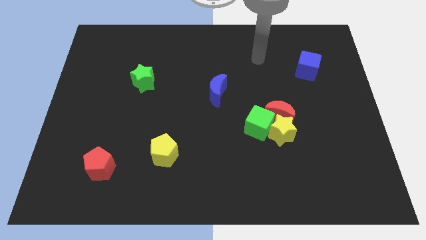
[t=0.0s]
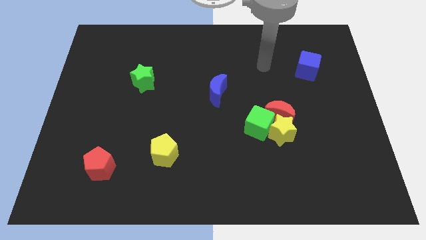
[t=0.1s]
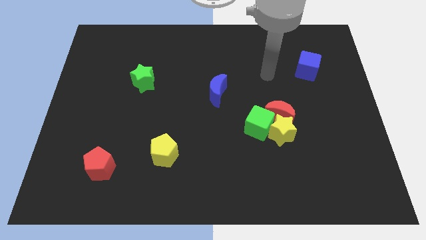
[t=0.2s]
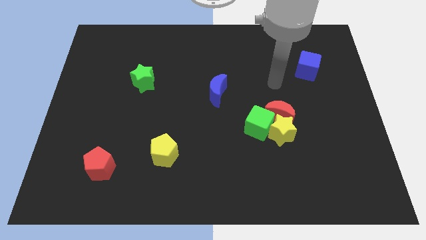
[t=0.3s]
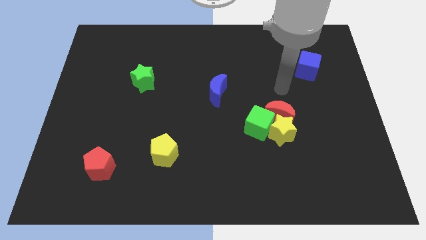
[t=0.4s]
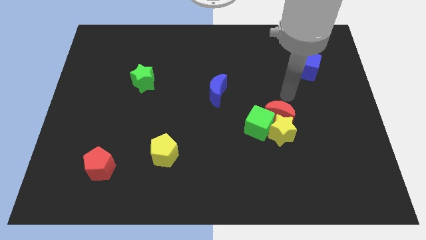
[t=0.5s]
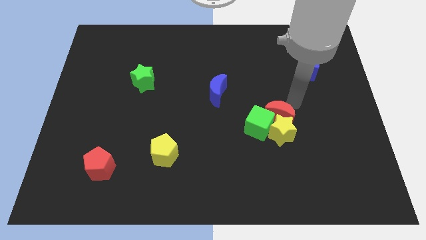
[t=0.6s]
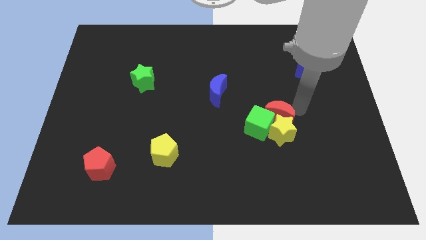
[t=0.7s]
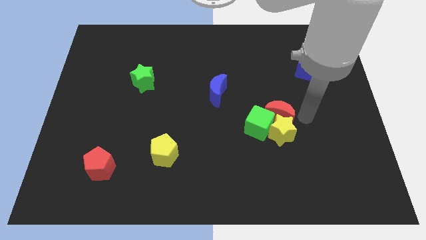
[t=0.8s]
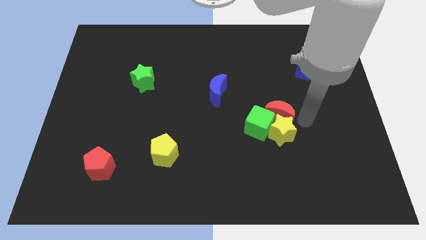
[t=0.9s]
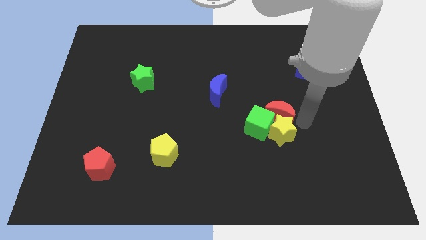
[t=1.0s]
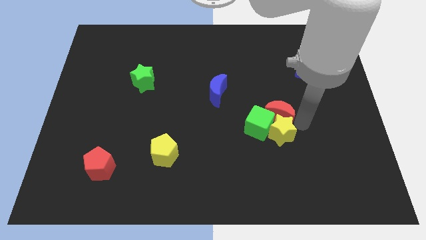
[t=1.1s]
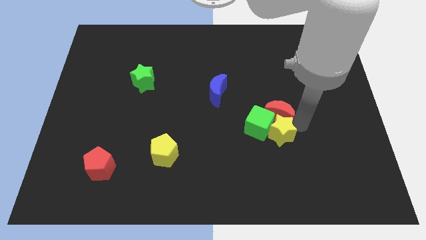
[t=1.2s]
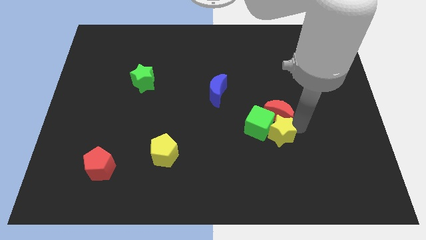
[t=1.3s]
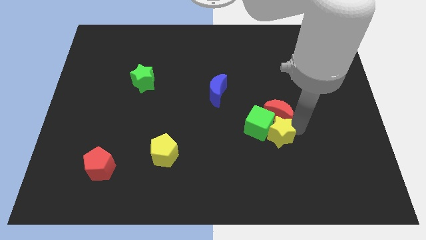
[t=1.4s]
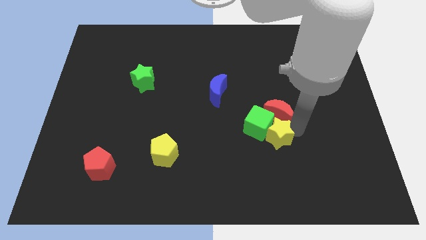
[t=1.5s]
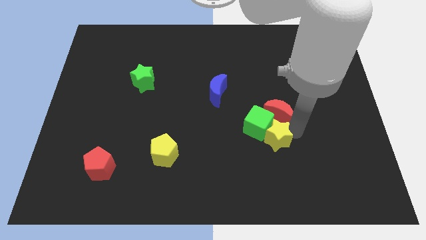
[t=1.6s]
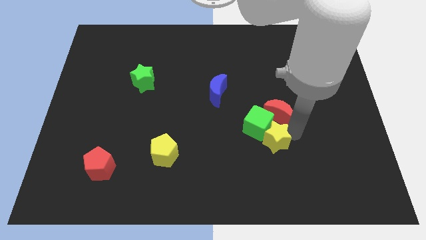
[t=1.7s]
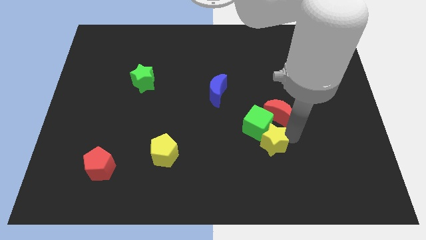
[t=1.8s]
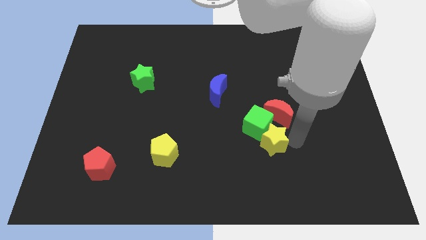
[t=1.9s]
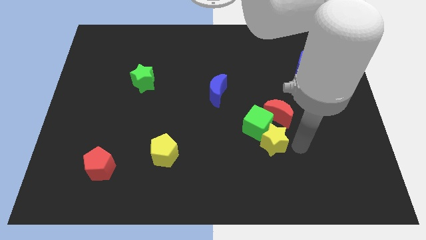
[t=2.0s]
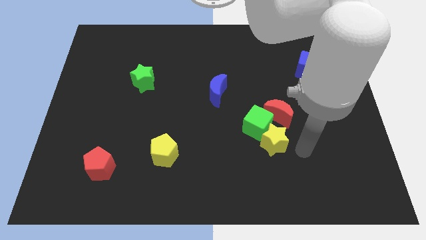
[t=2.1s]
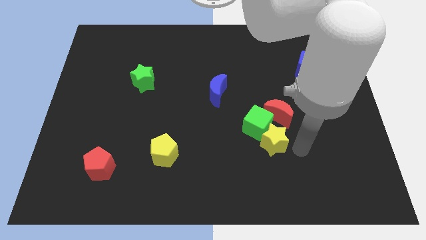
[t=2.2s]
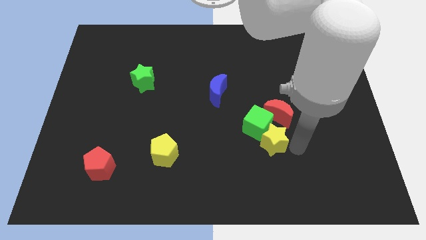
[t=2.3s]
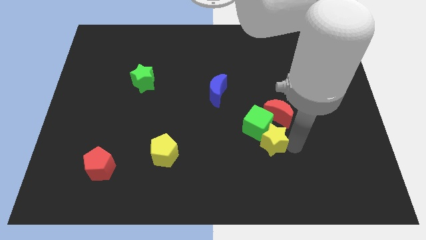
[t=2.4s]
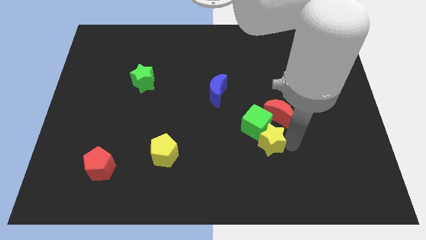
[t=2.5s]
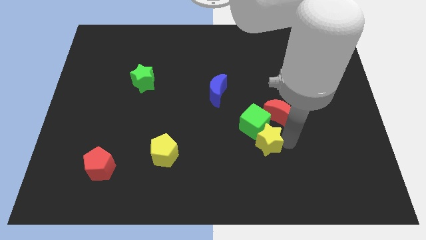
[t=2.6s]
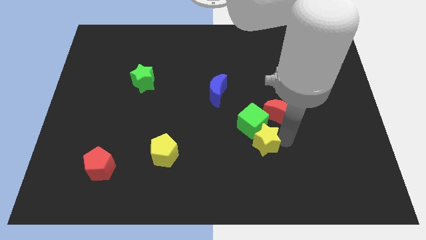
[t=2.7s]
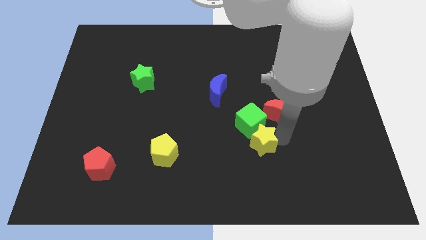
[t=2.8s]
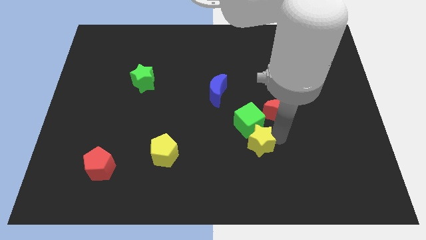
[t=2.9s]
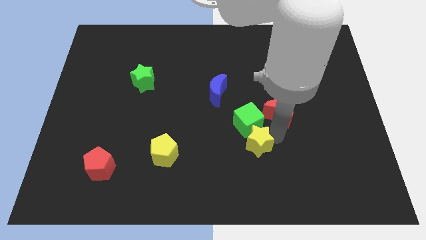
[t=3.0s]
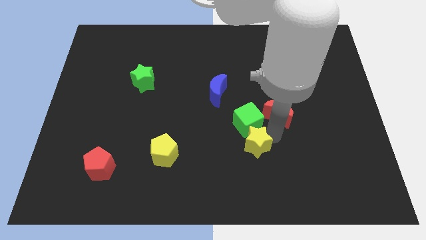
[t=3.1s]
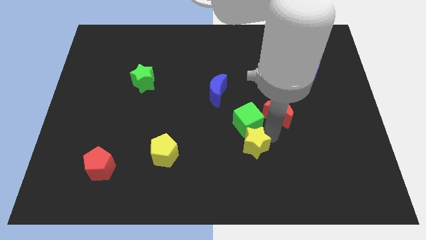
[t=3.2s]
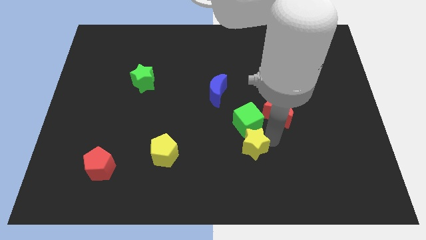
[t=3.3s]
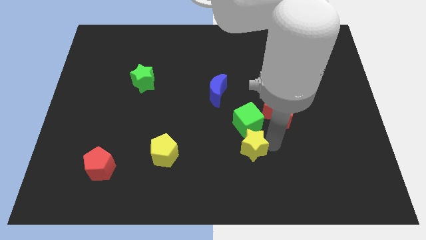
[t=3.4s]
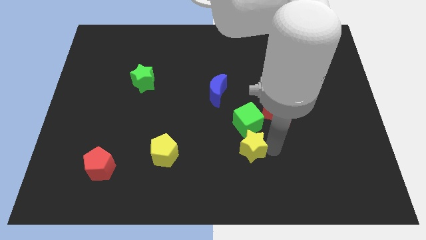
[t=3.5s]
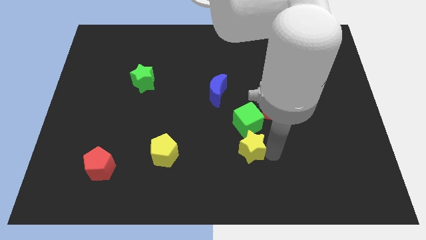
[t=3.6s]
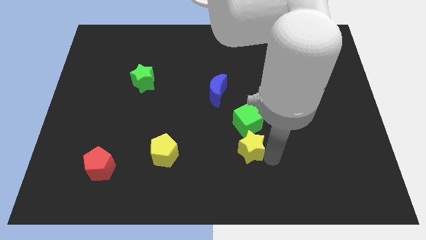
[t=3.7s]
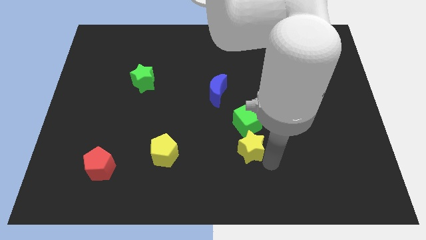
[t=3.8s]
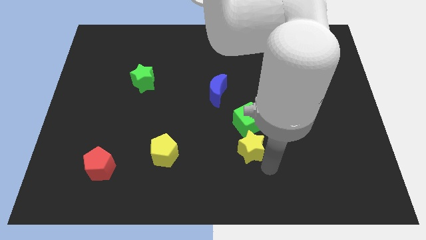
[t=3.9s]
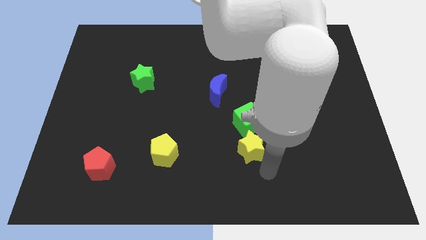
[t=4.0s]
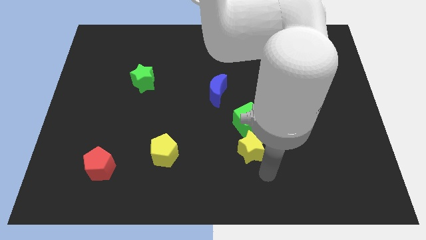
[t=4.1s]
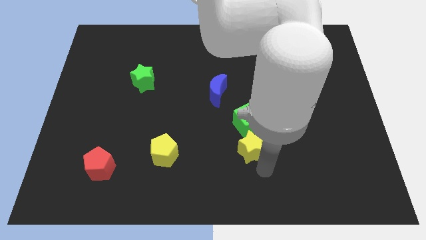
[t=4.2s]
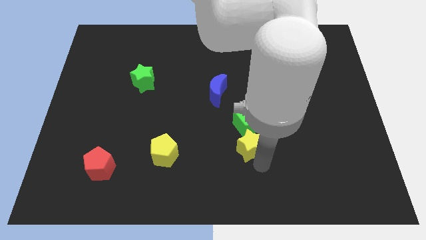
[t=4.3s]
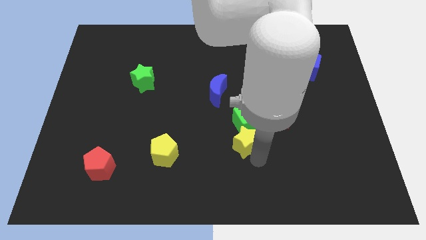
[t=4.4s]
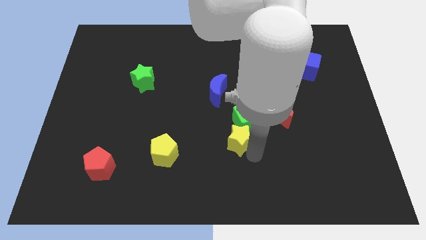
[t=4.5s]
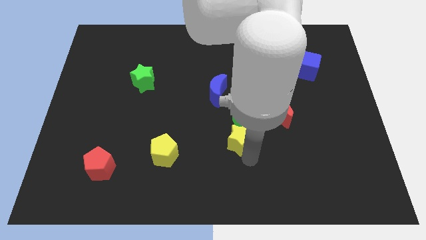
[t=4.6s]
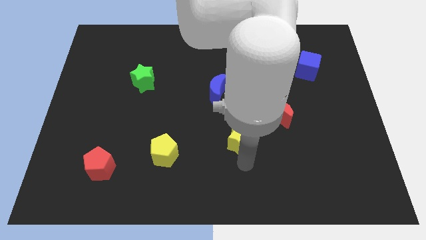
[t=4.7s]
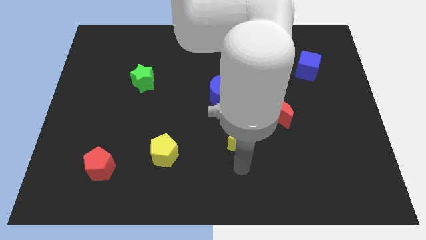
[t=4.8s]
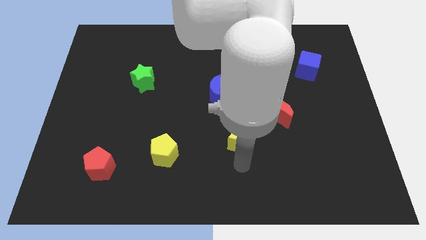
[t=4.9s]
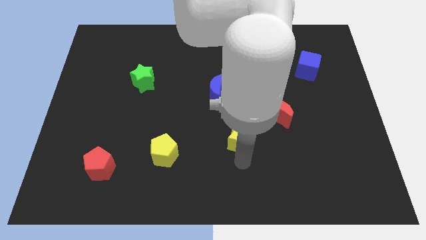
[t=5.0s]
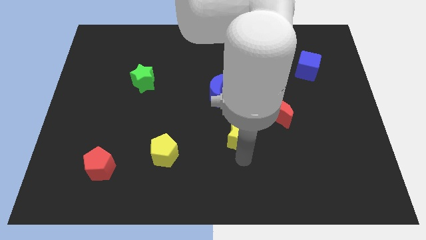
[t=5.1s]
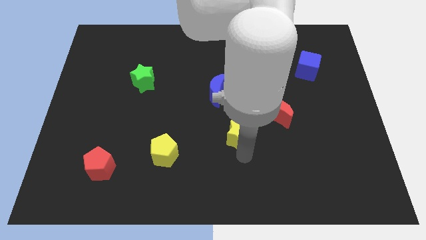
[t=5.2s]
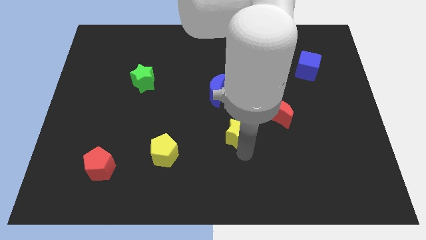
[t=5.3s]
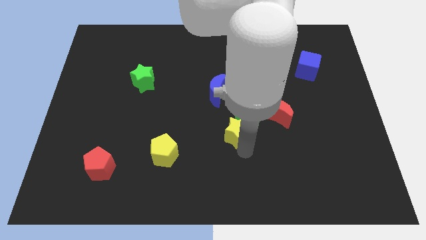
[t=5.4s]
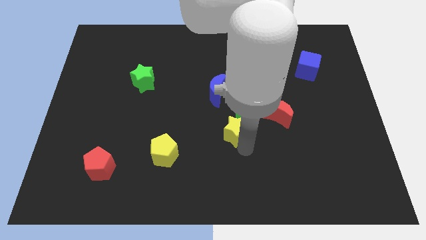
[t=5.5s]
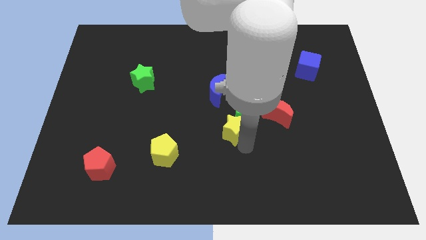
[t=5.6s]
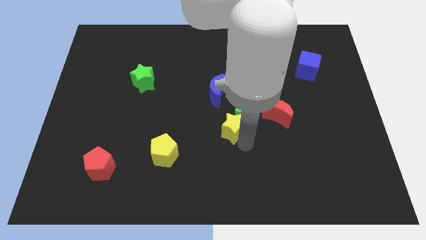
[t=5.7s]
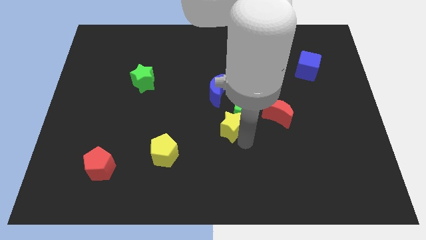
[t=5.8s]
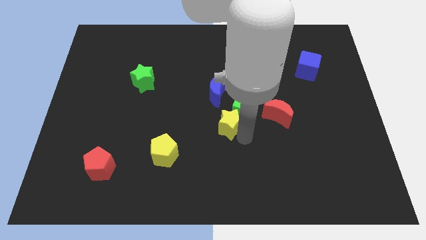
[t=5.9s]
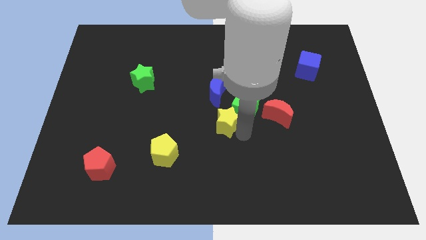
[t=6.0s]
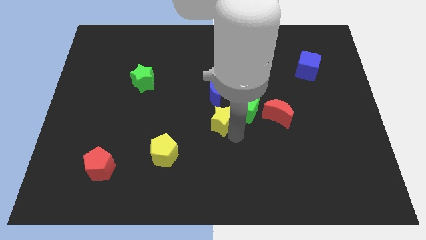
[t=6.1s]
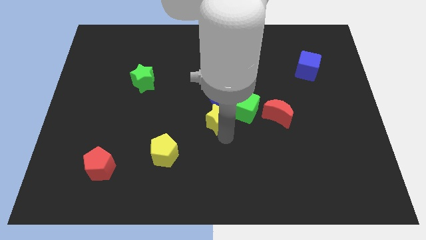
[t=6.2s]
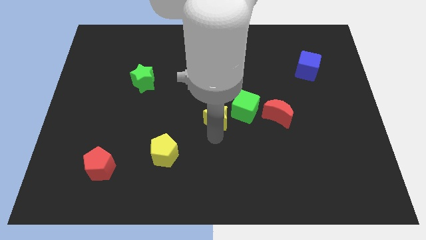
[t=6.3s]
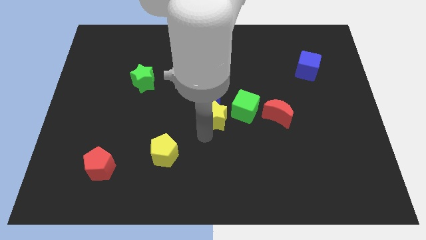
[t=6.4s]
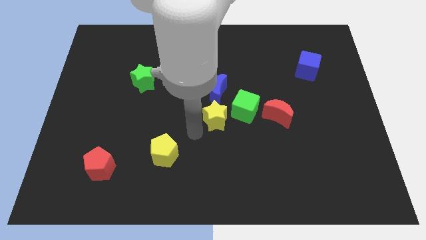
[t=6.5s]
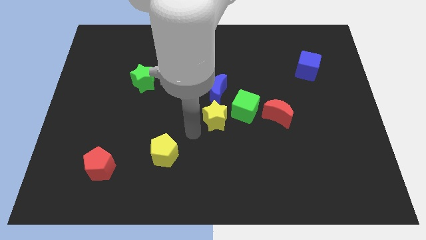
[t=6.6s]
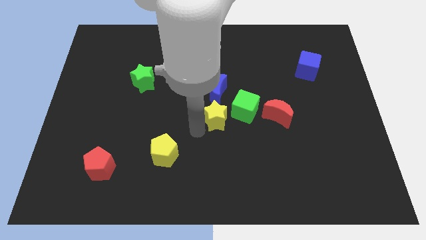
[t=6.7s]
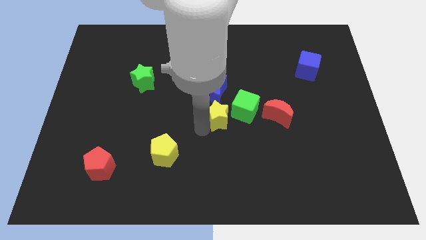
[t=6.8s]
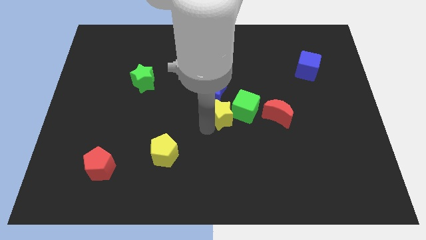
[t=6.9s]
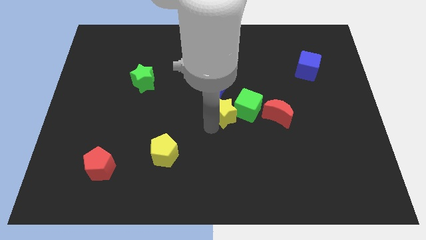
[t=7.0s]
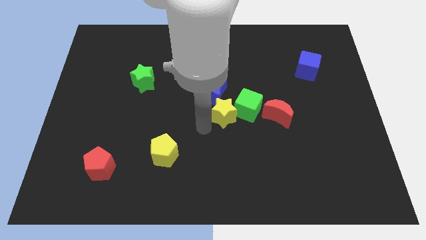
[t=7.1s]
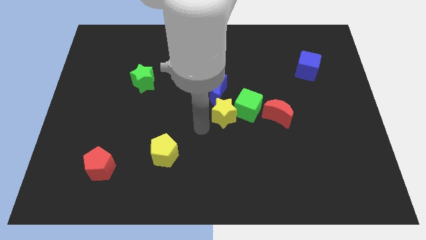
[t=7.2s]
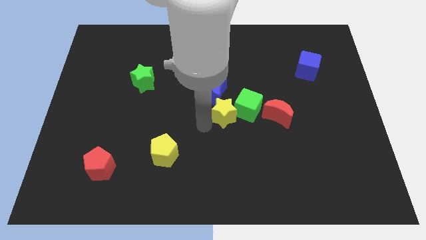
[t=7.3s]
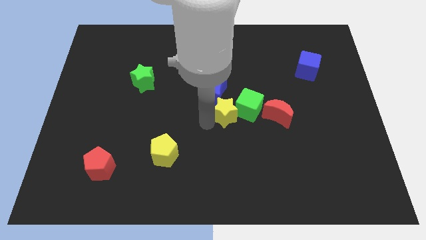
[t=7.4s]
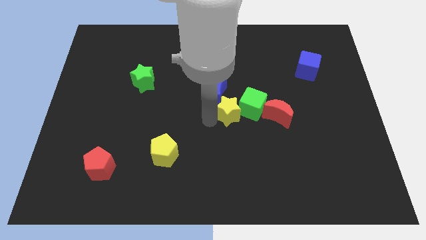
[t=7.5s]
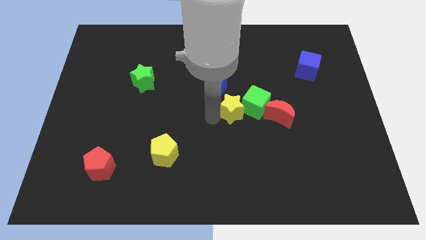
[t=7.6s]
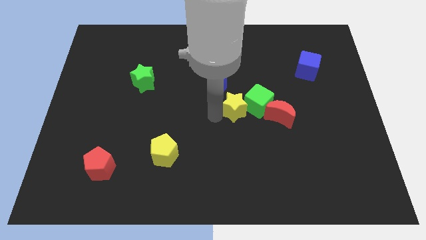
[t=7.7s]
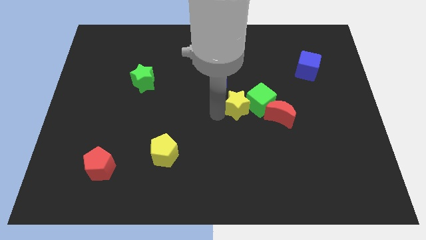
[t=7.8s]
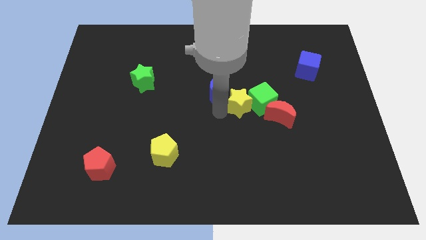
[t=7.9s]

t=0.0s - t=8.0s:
move the yellow star to the top left side of the red moon
